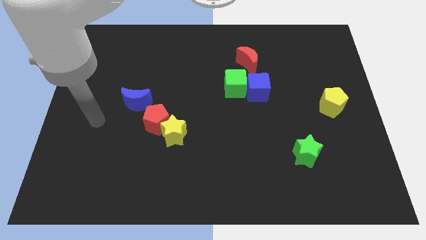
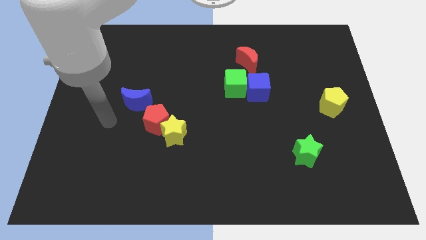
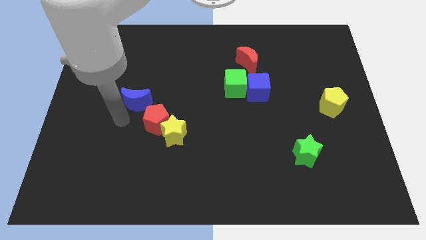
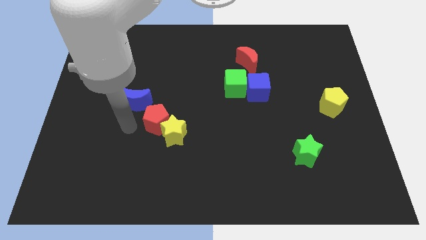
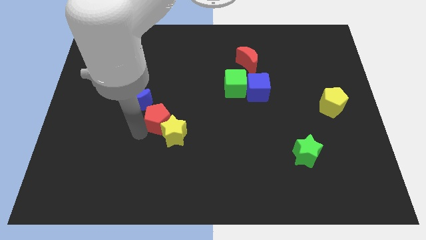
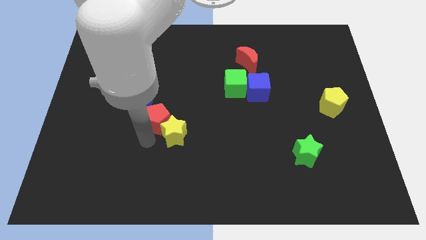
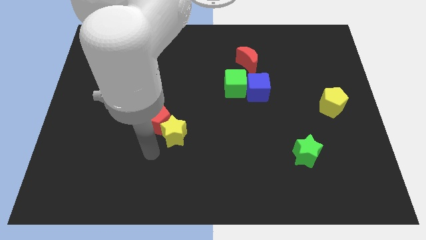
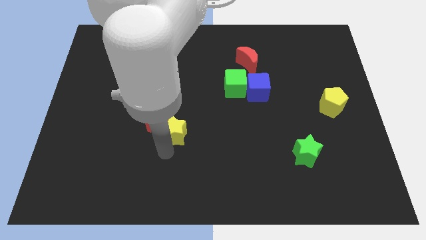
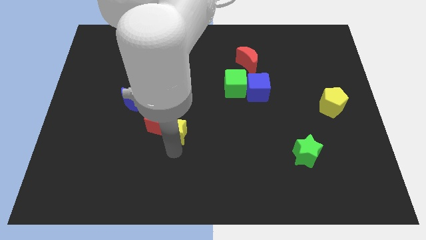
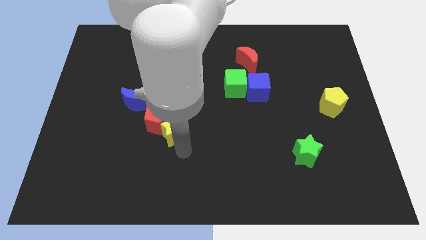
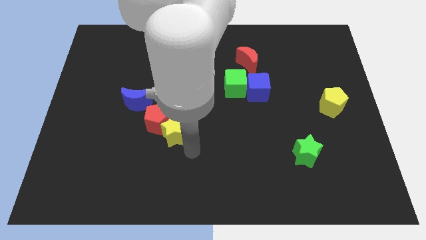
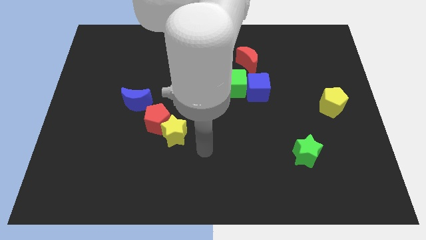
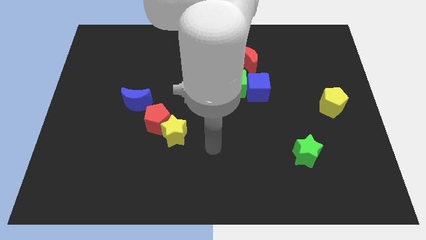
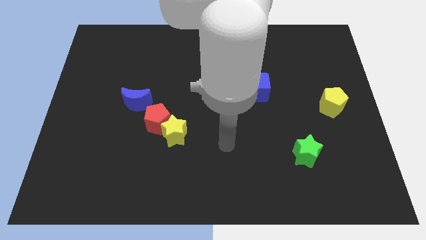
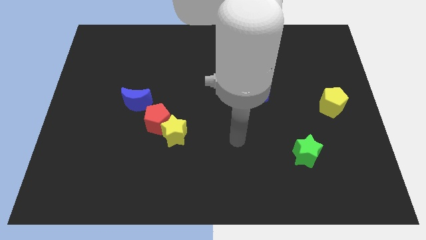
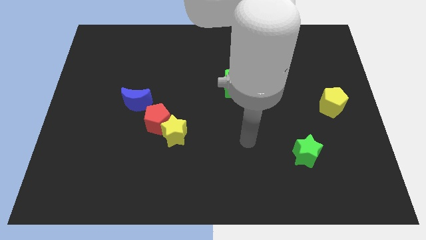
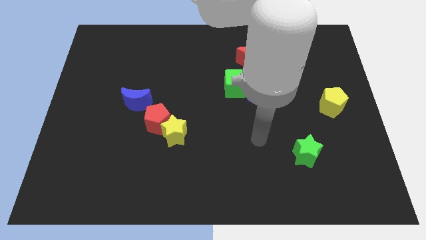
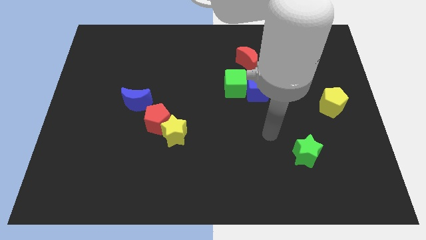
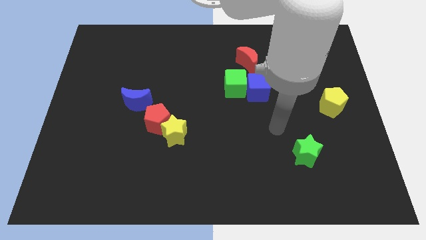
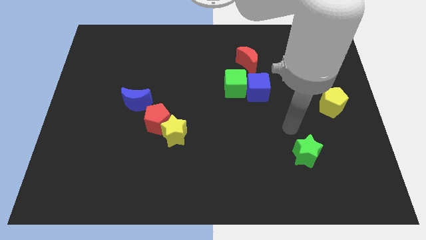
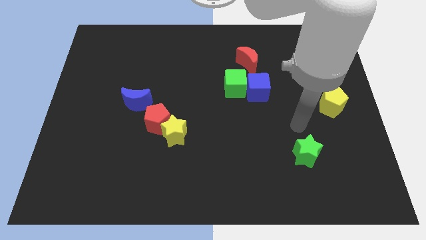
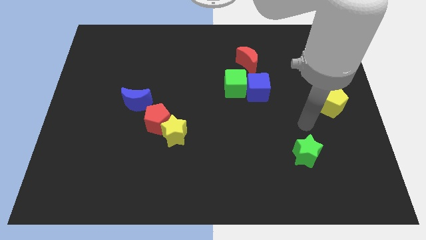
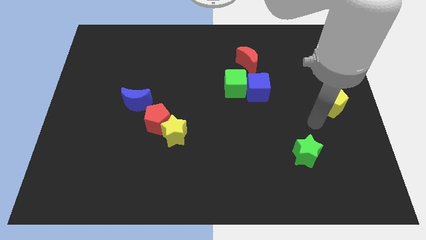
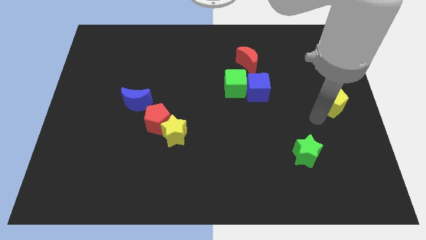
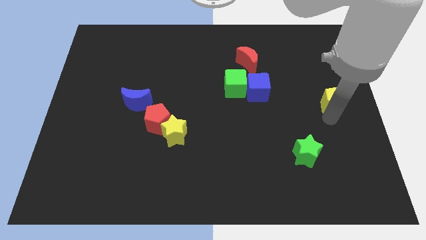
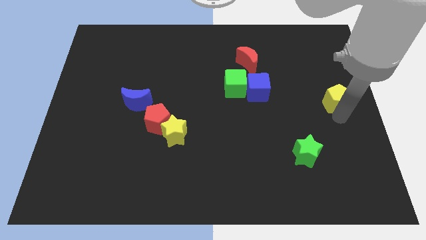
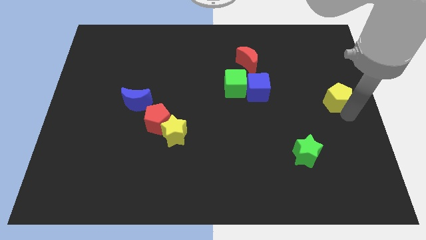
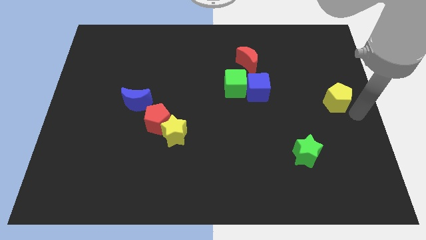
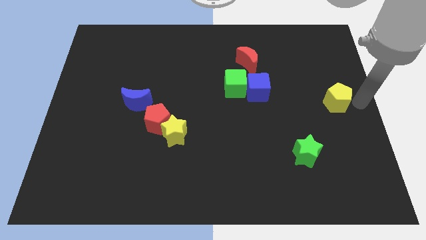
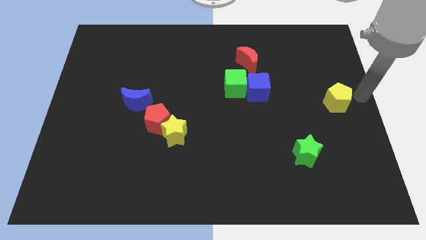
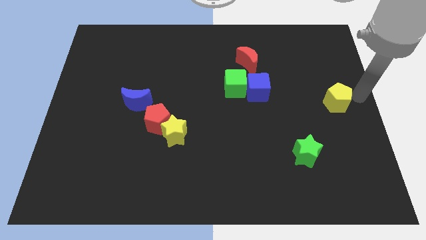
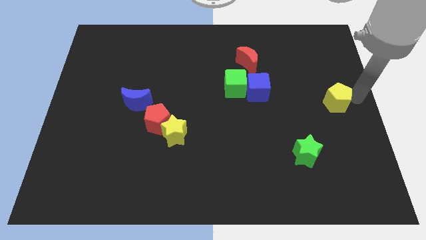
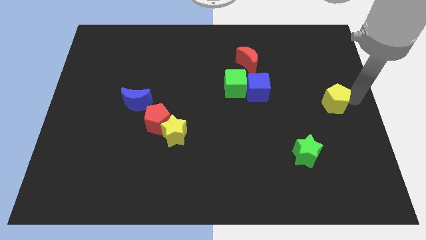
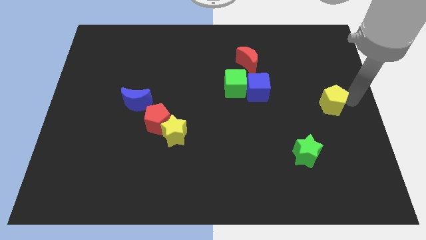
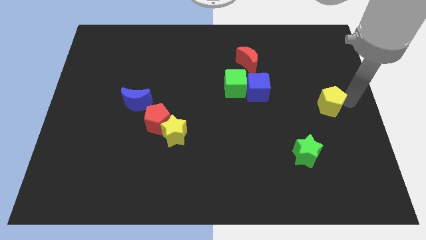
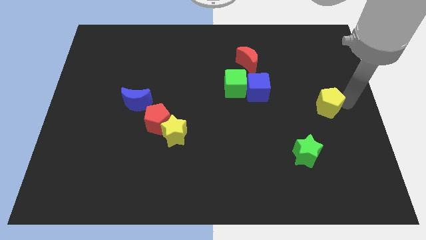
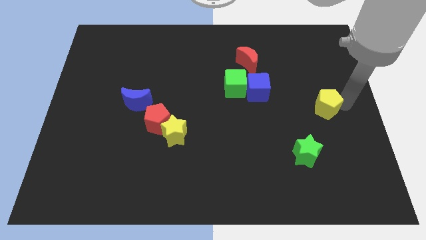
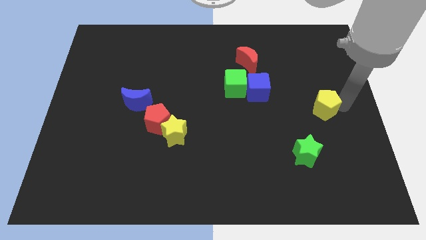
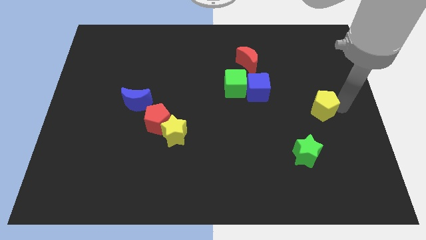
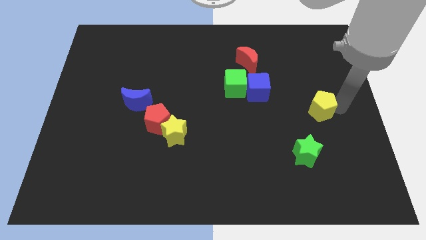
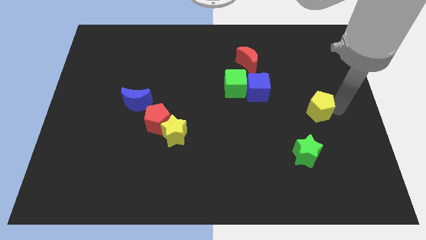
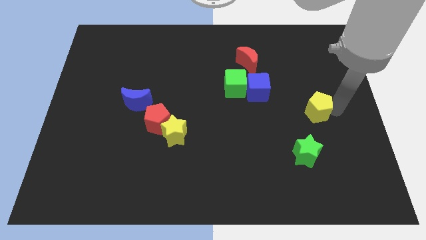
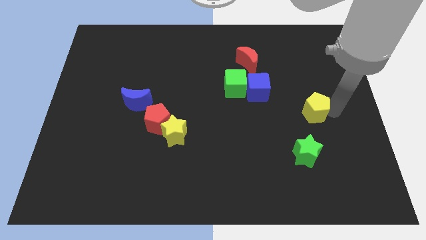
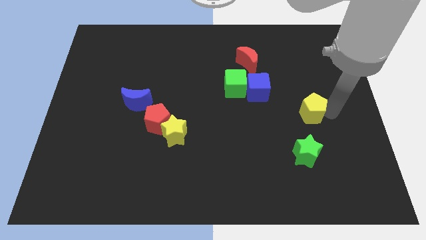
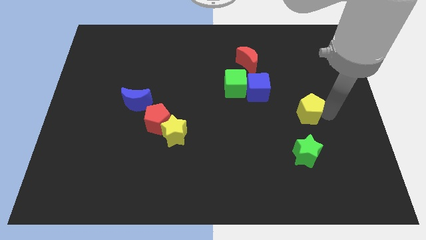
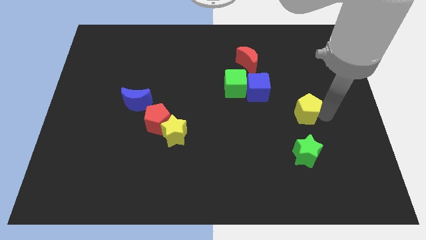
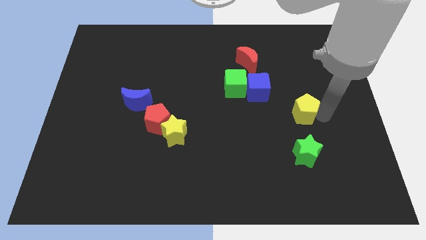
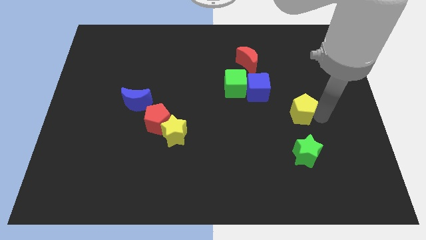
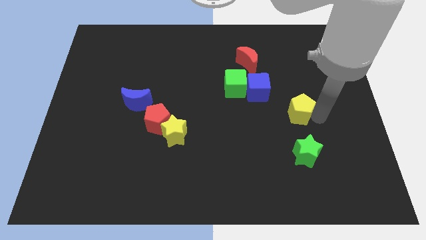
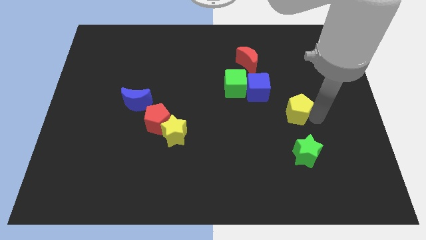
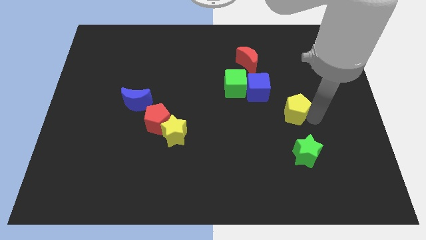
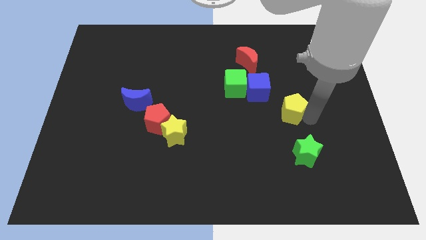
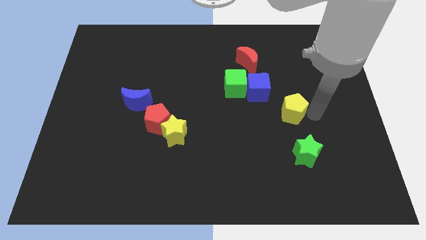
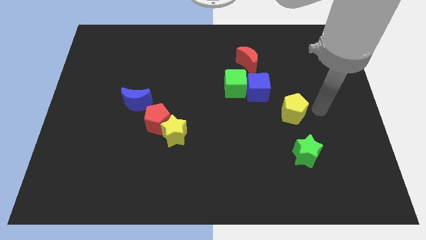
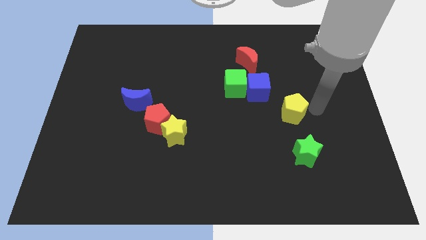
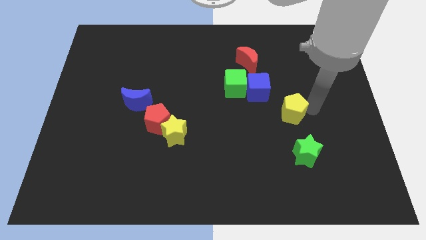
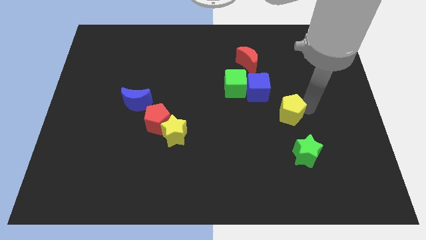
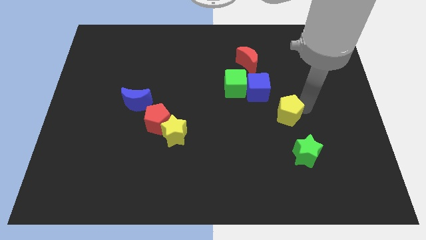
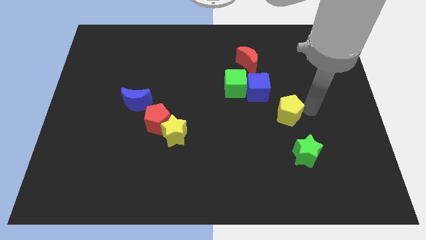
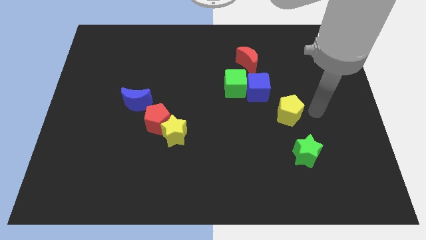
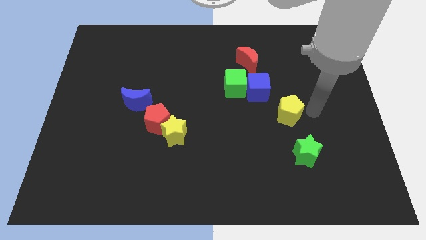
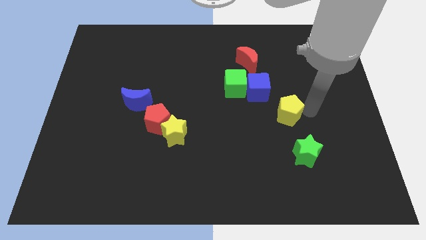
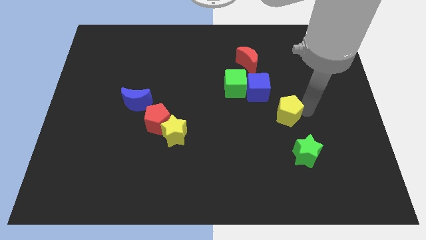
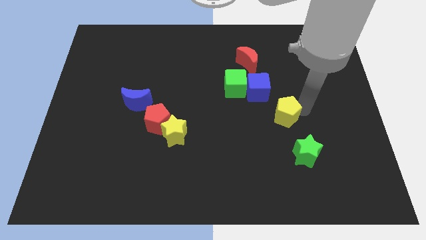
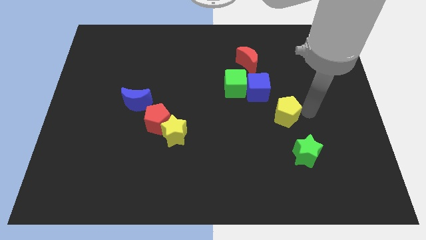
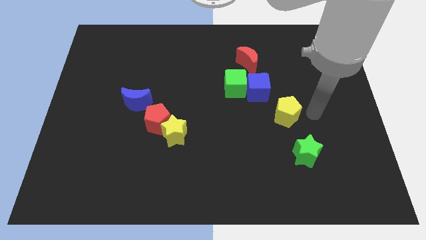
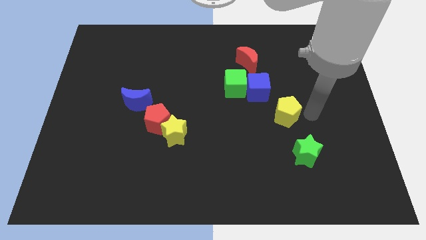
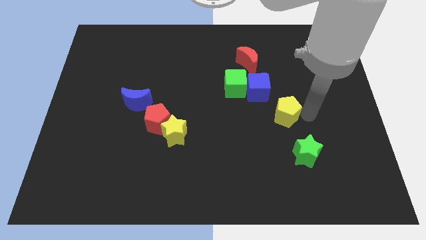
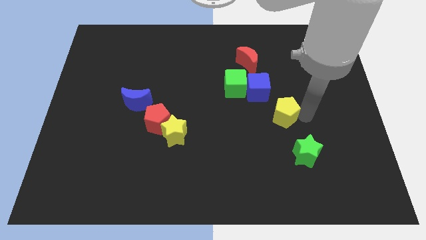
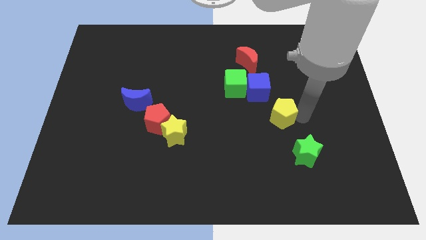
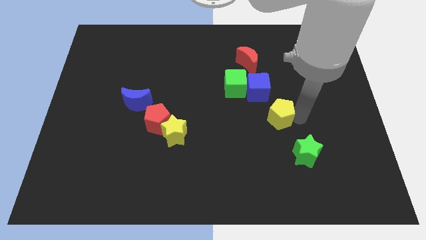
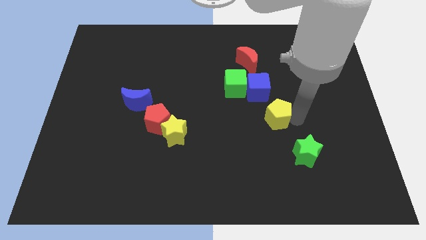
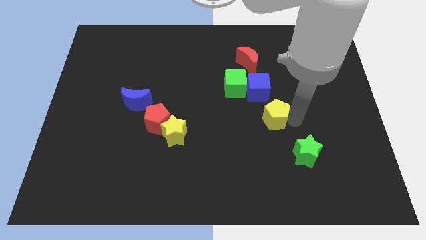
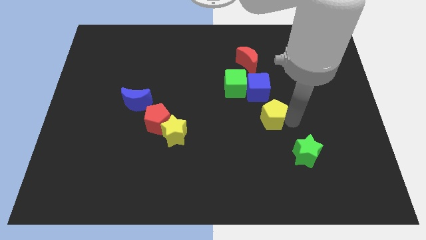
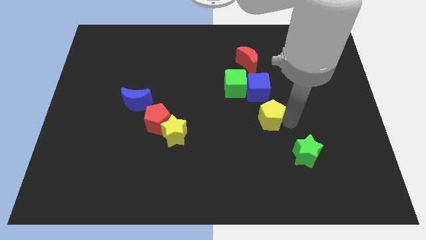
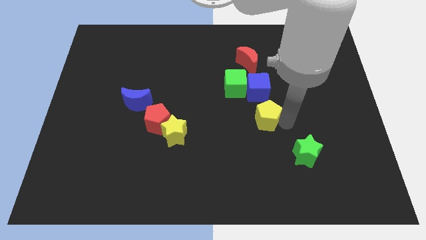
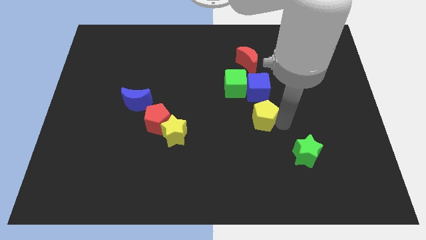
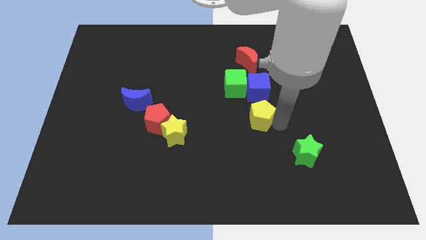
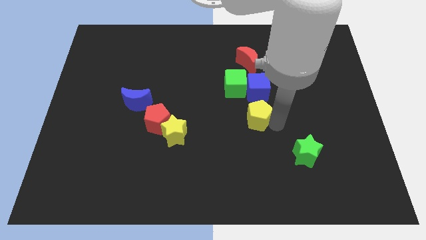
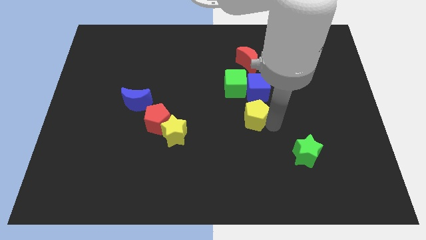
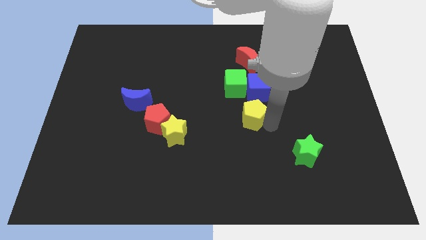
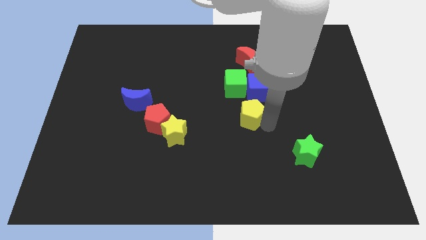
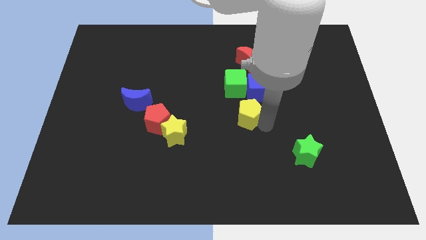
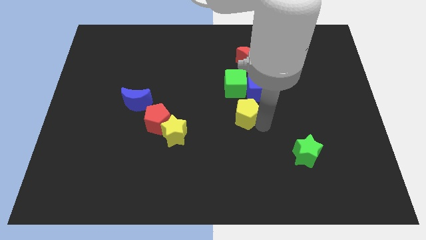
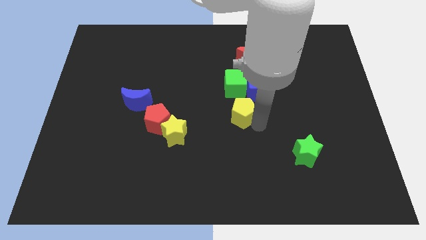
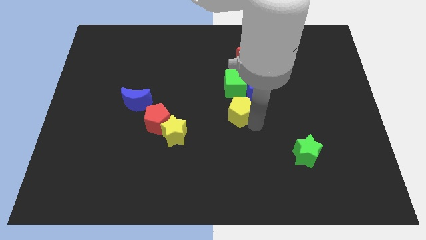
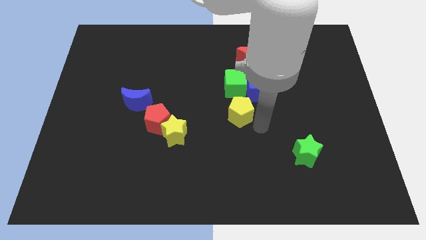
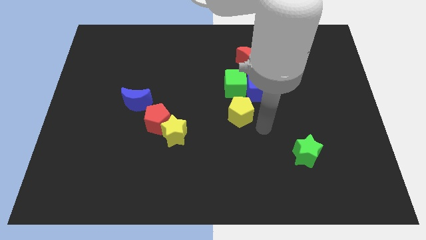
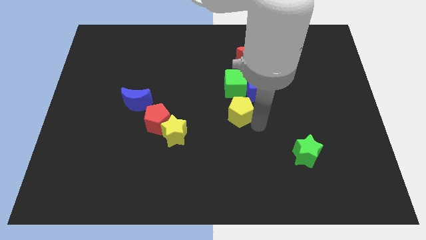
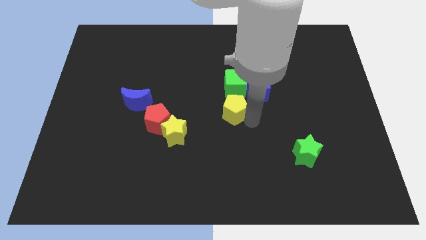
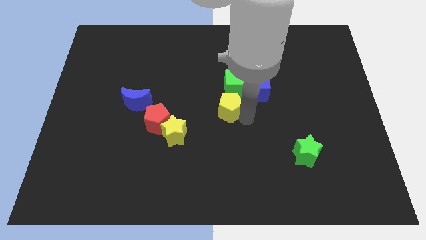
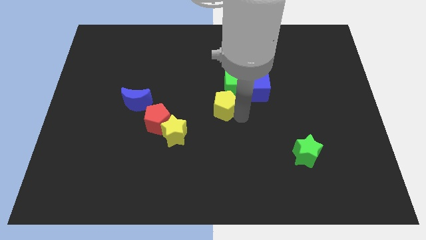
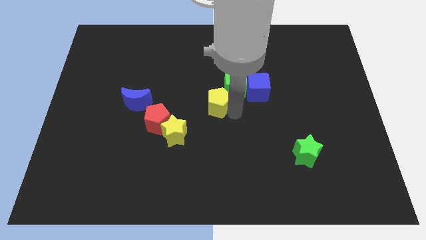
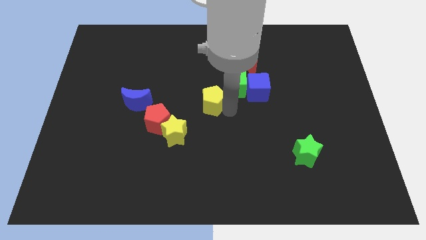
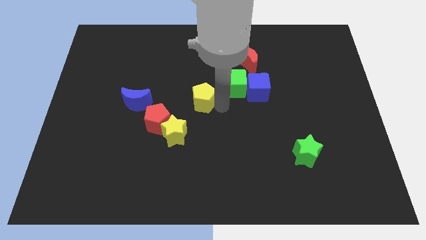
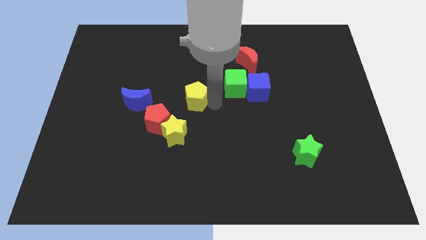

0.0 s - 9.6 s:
slide the yellow pentagon to the top of the yellow star
